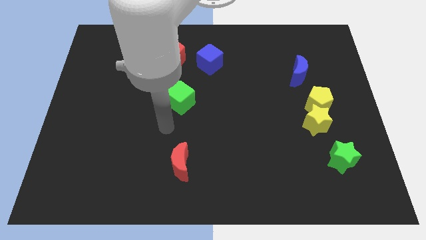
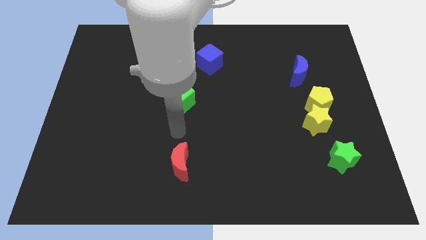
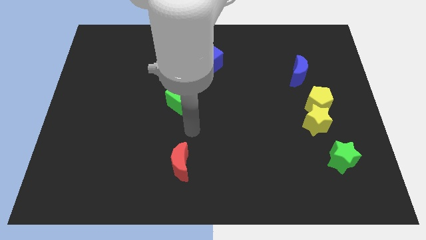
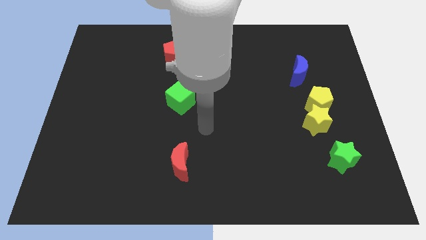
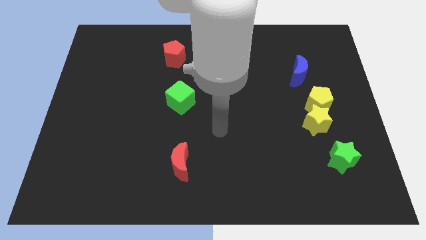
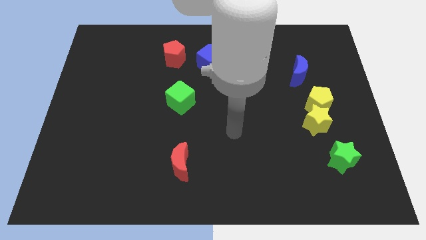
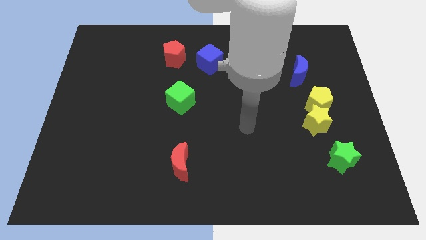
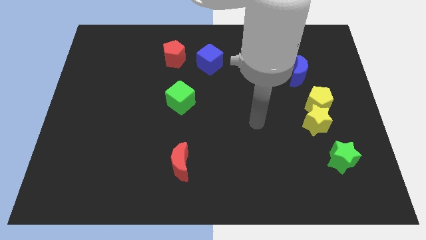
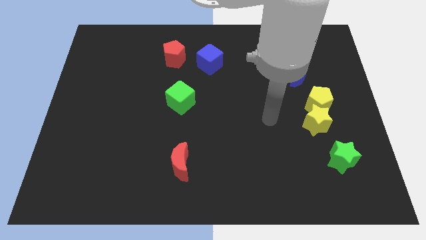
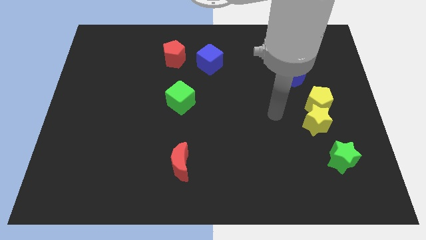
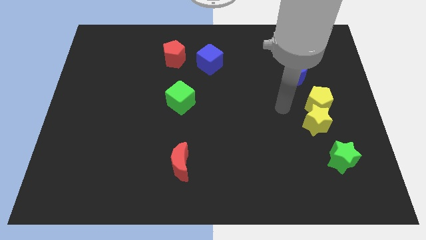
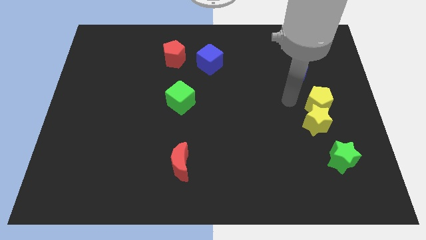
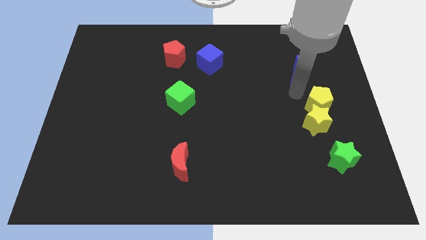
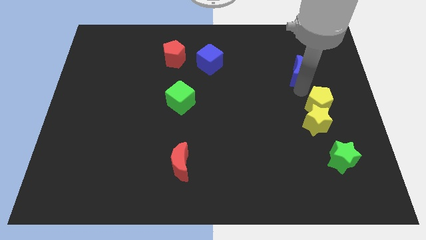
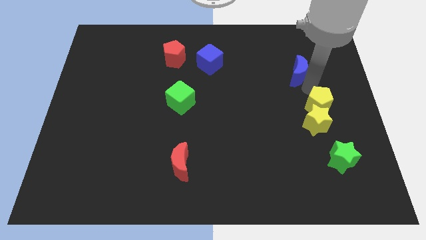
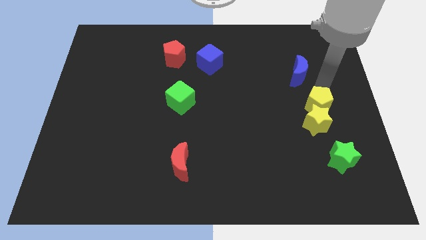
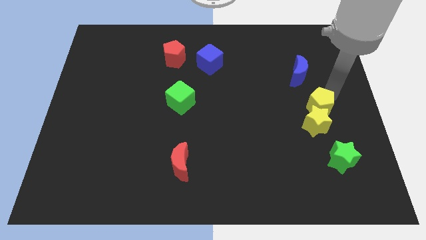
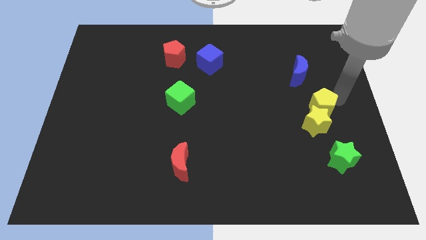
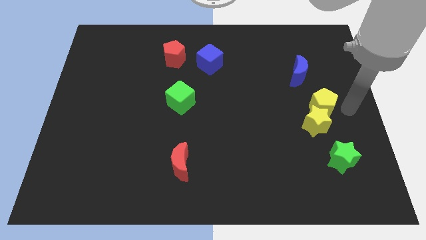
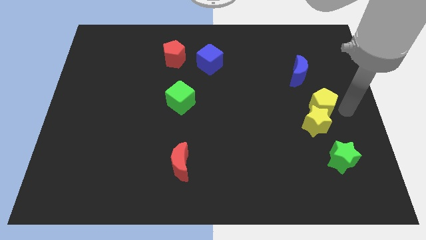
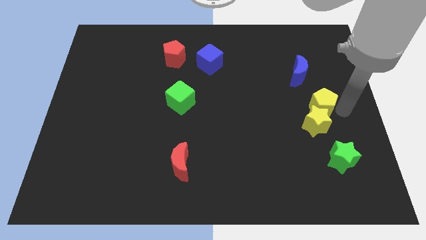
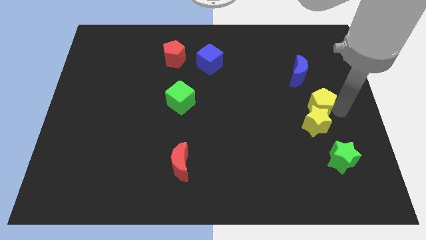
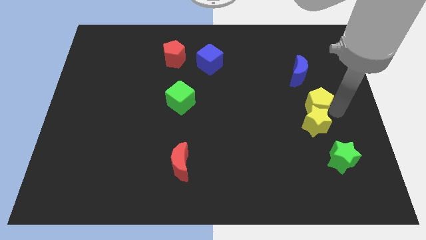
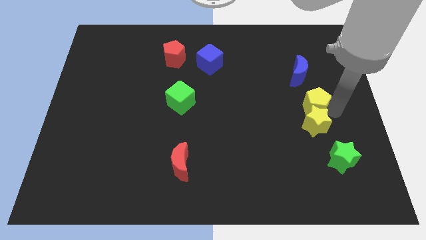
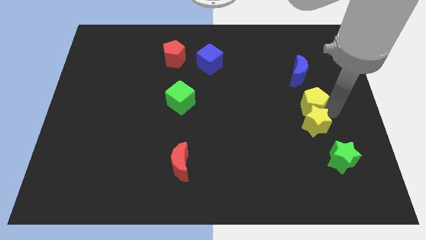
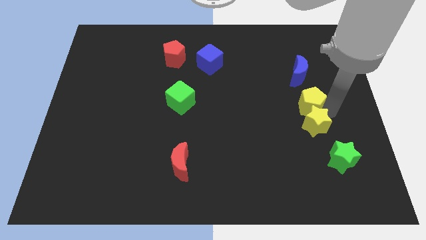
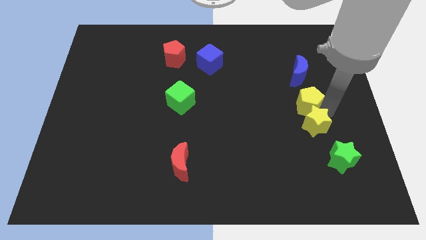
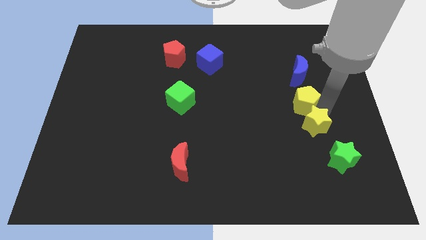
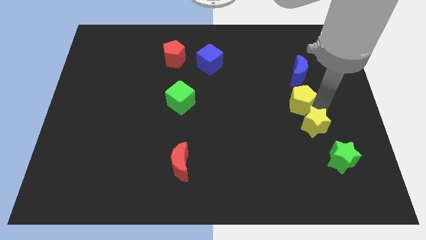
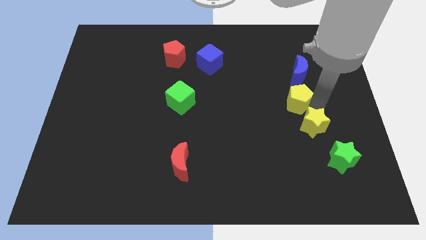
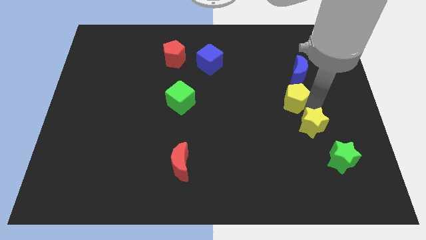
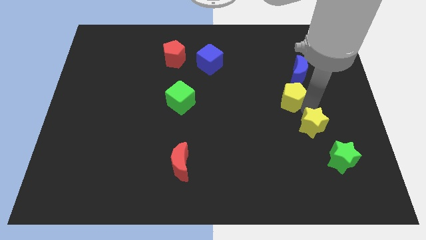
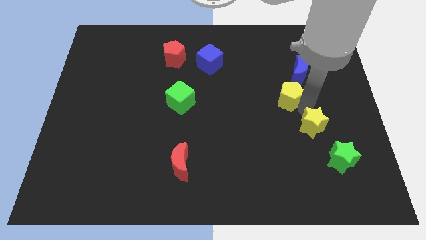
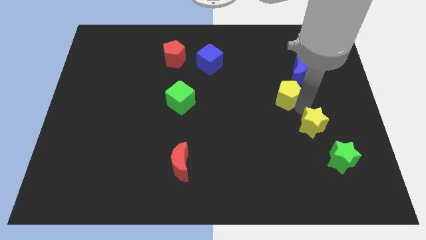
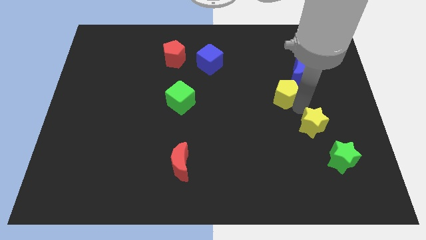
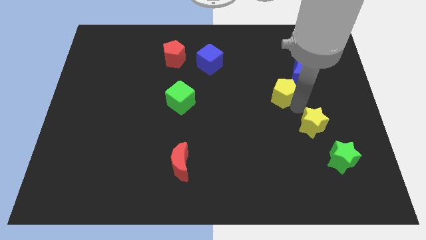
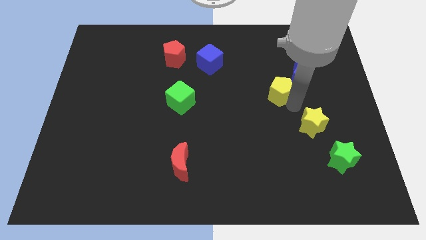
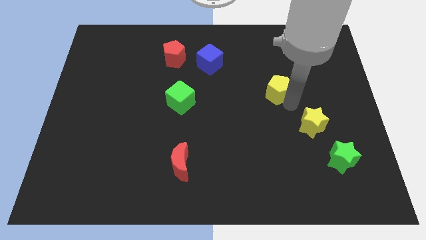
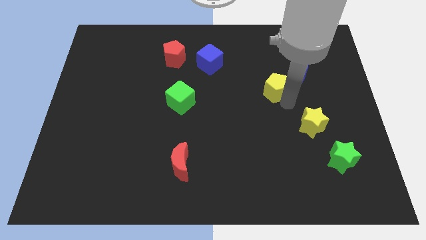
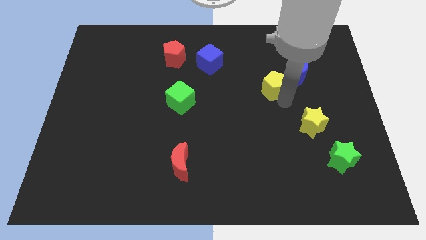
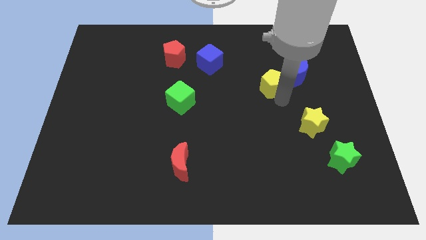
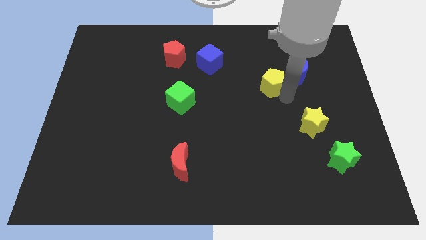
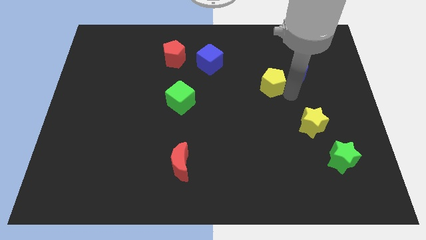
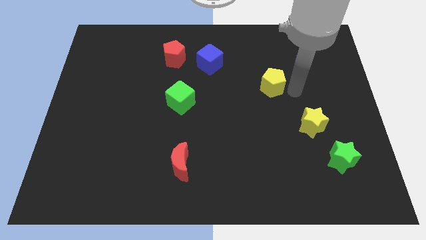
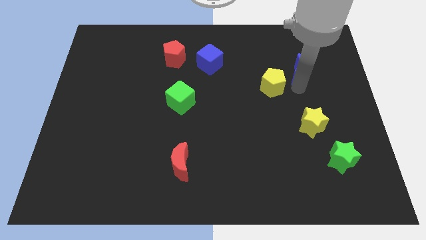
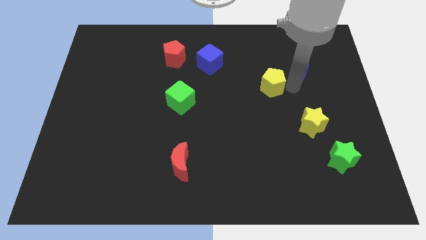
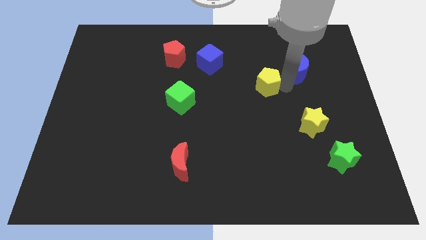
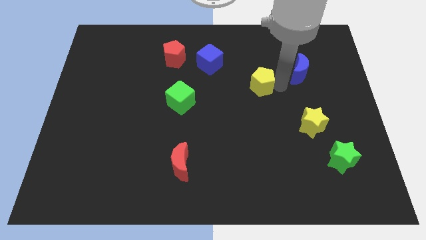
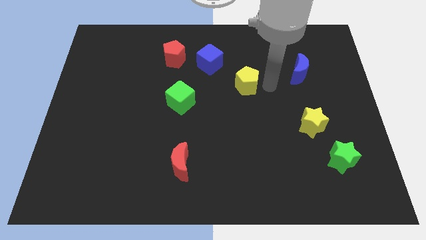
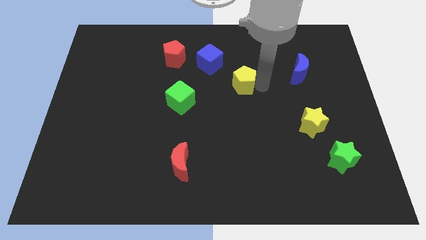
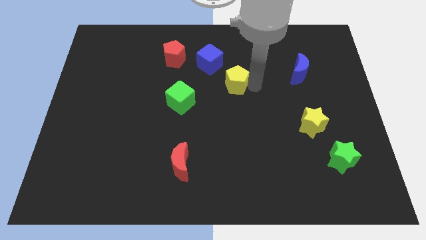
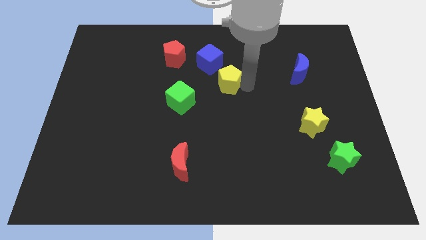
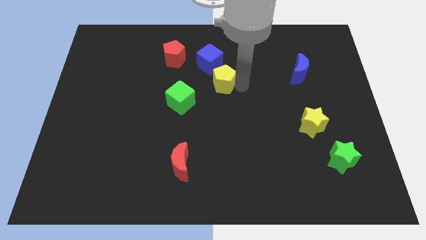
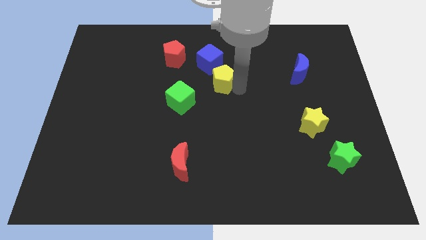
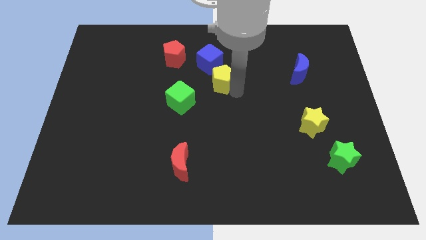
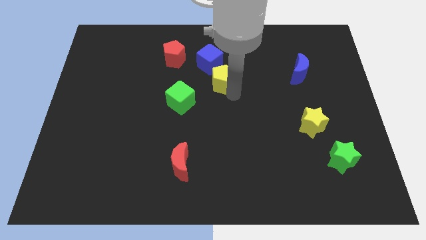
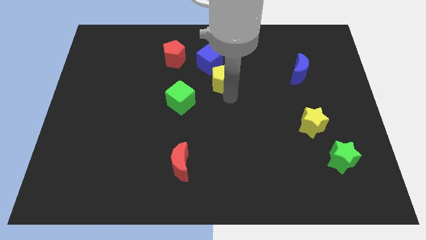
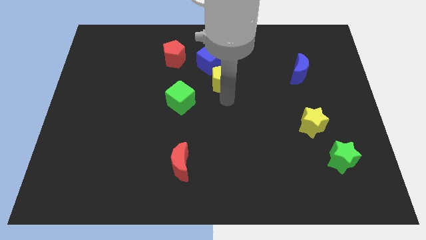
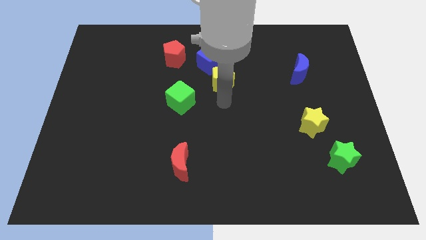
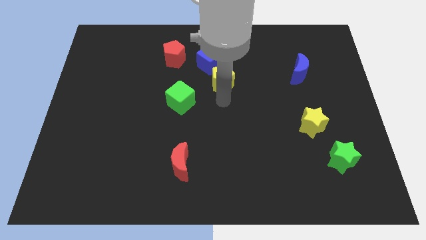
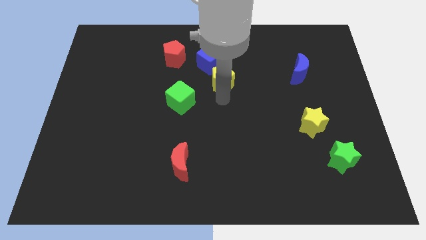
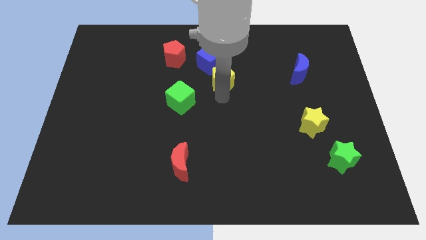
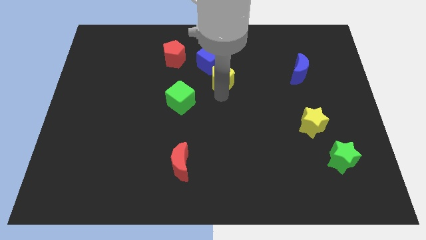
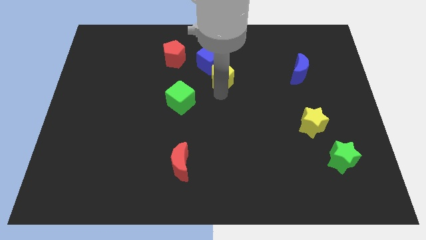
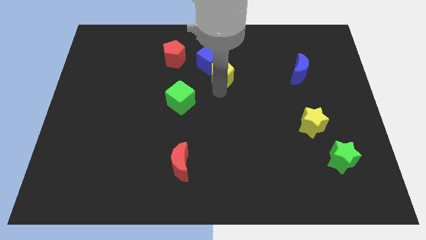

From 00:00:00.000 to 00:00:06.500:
put the yellow pentagon close to the blue cube

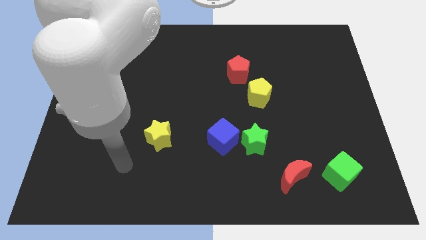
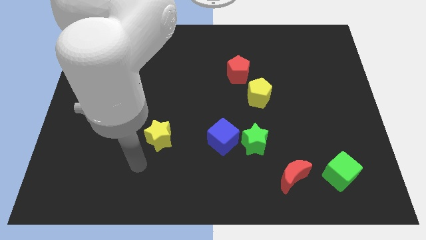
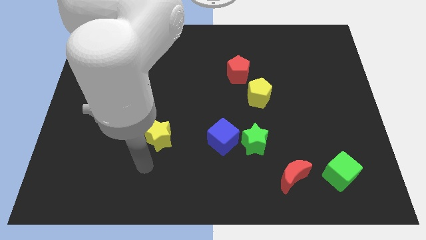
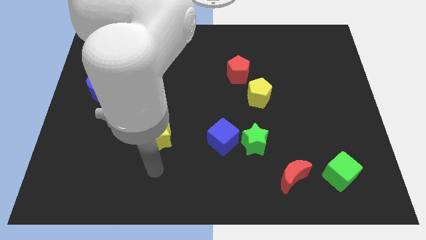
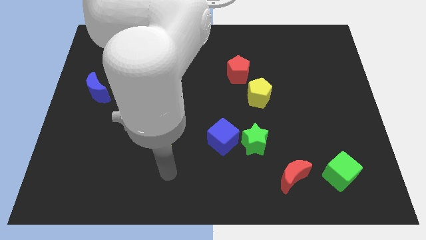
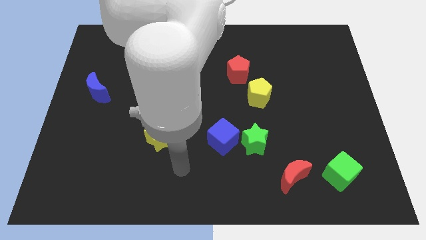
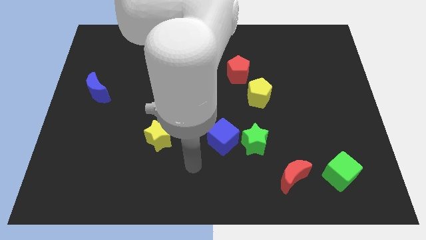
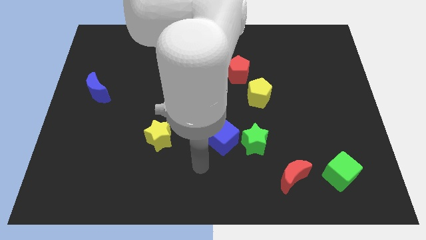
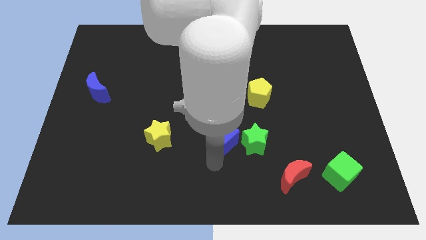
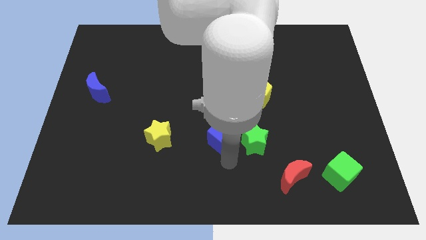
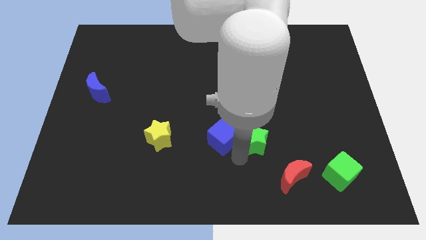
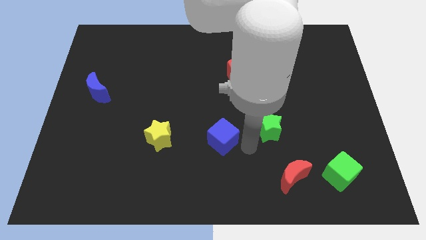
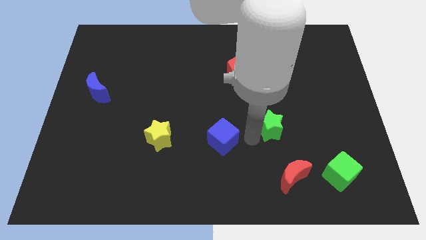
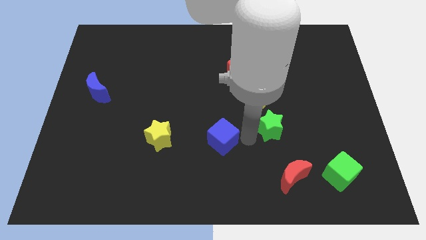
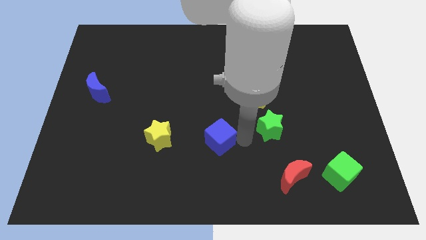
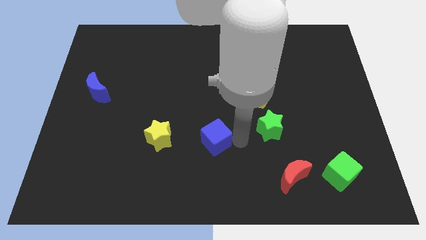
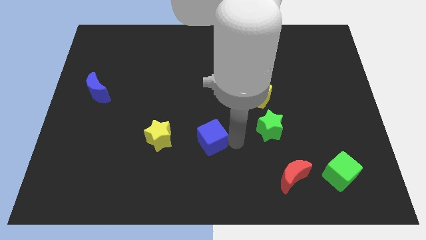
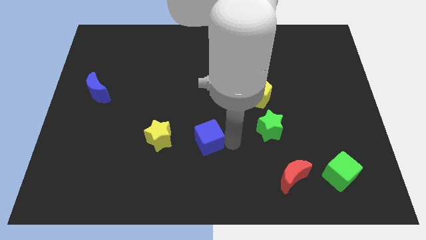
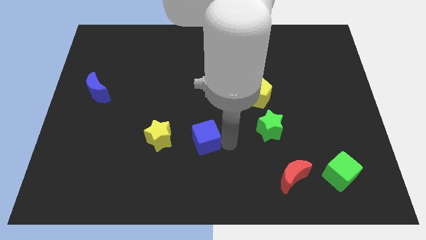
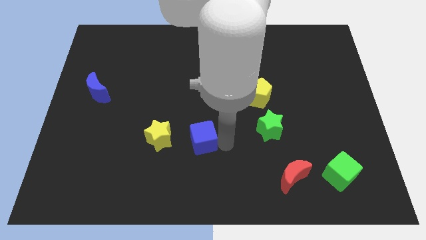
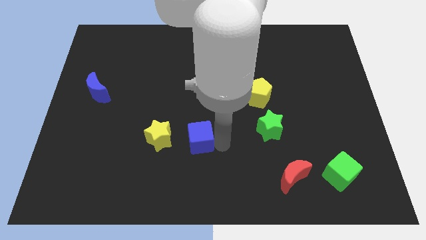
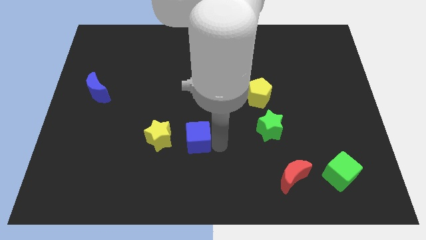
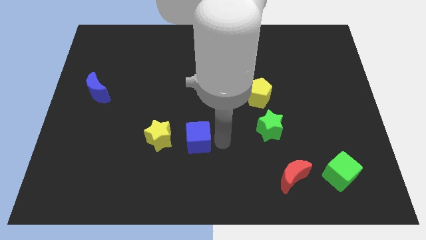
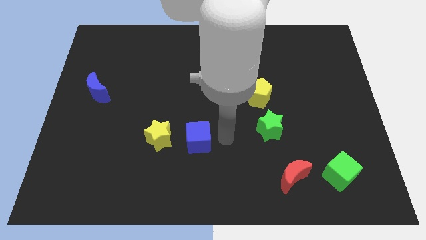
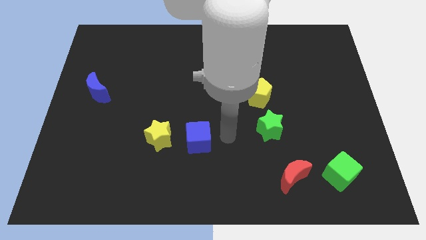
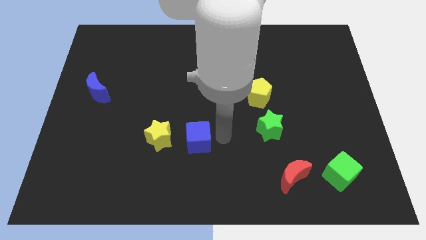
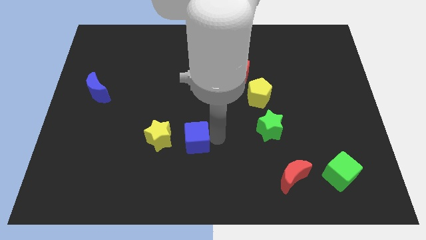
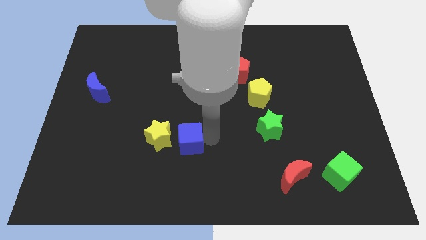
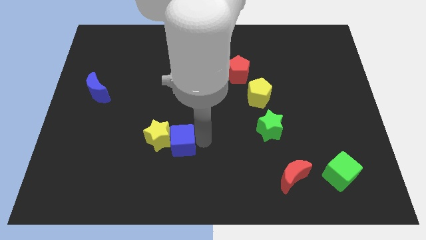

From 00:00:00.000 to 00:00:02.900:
slide the blue cube towards the yellow star
